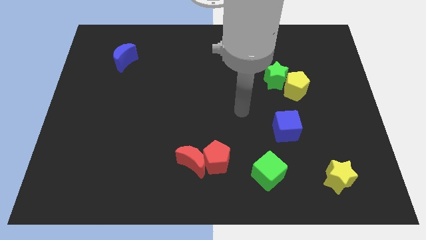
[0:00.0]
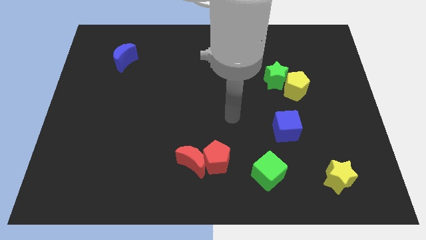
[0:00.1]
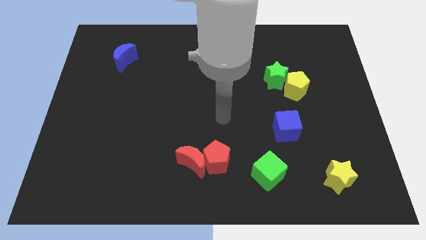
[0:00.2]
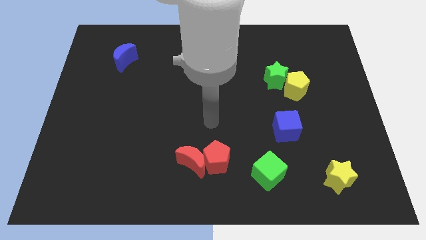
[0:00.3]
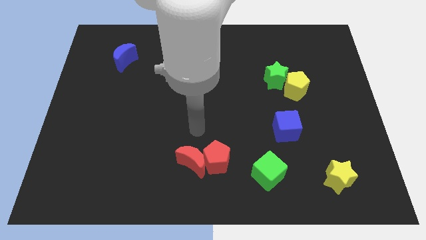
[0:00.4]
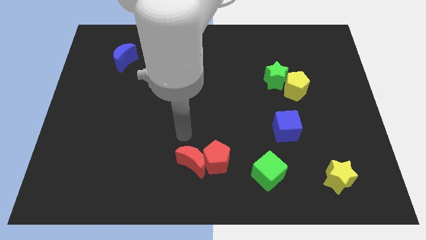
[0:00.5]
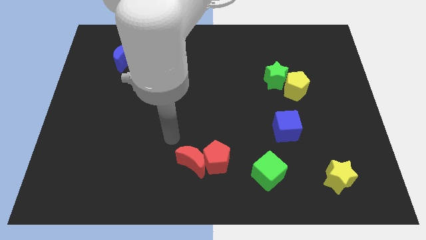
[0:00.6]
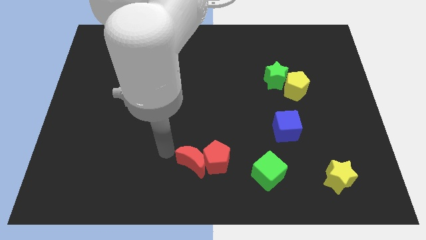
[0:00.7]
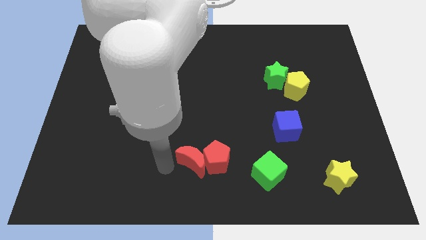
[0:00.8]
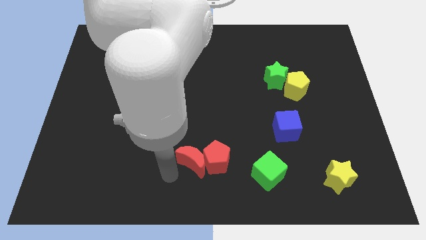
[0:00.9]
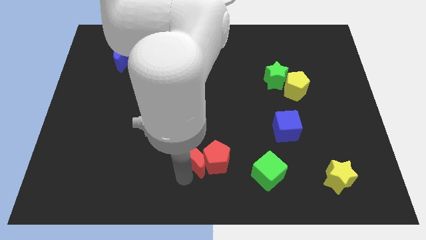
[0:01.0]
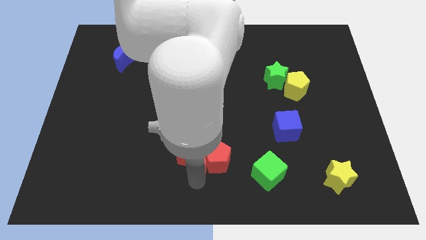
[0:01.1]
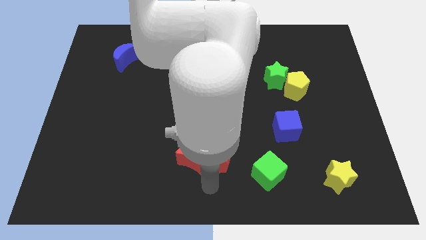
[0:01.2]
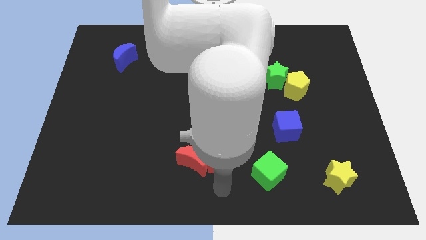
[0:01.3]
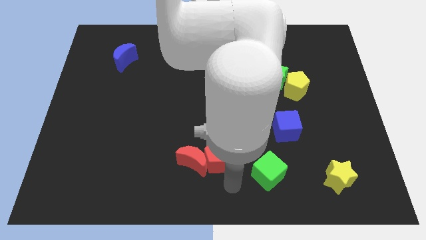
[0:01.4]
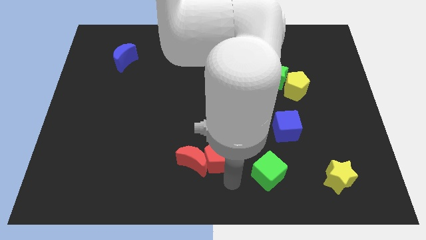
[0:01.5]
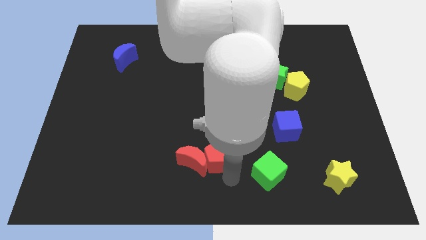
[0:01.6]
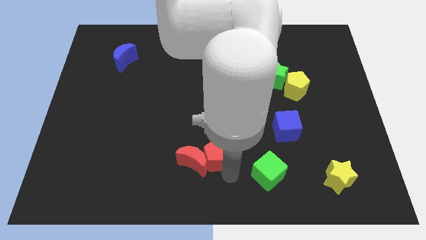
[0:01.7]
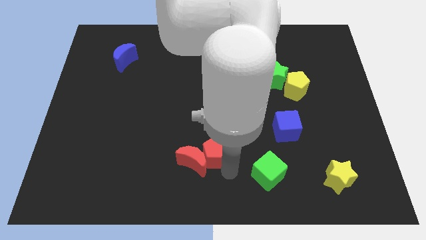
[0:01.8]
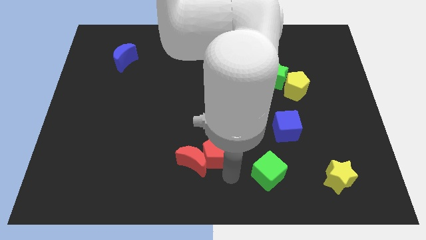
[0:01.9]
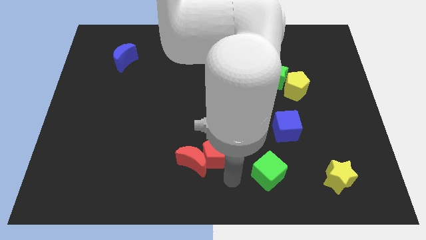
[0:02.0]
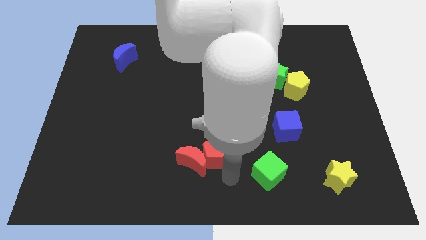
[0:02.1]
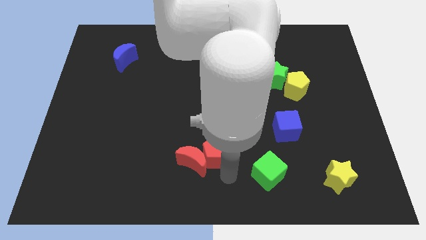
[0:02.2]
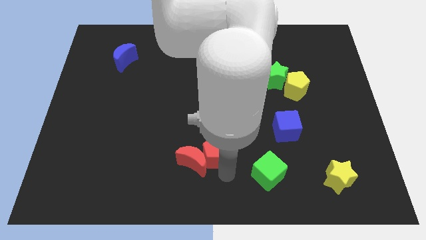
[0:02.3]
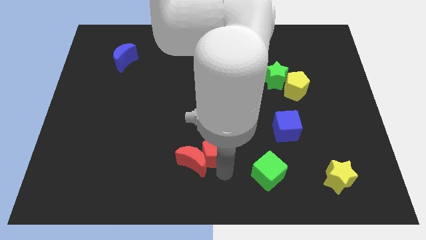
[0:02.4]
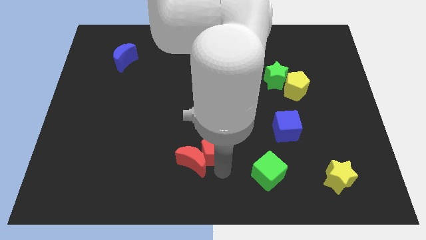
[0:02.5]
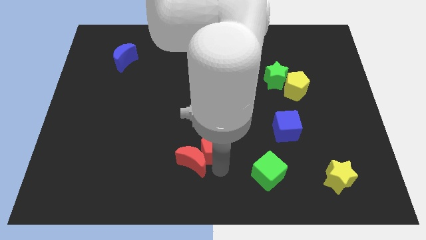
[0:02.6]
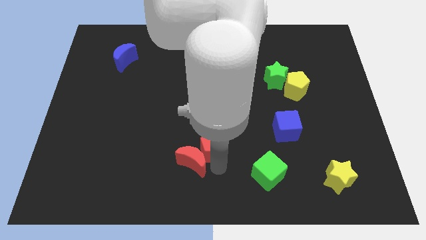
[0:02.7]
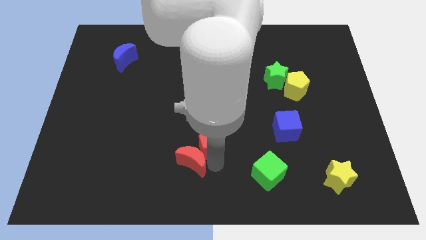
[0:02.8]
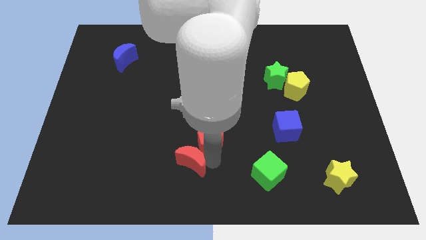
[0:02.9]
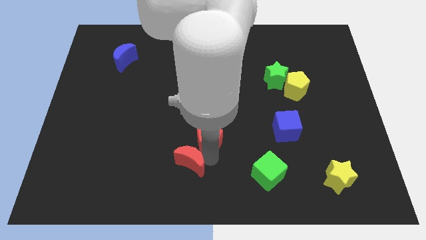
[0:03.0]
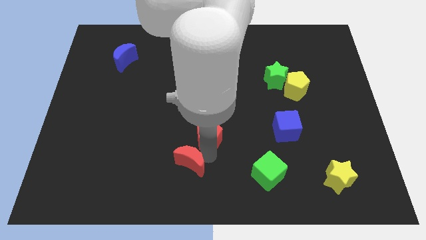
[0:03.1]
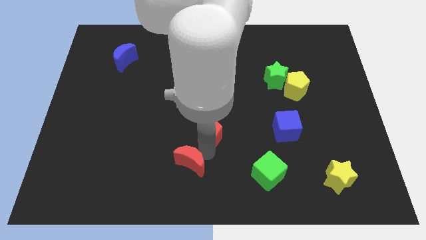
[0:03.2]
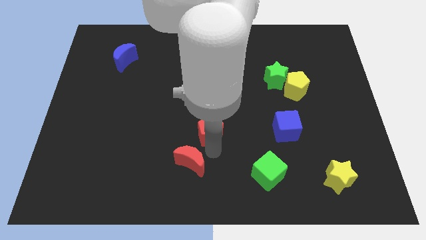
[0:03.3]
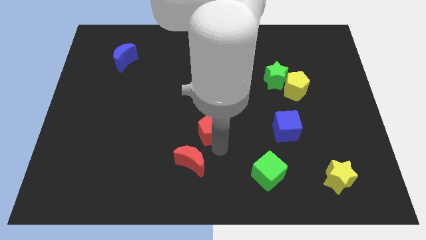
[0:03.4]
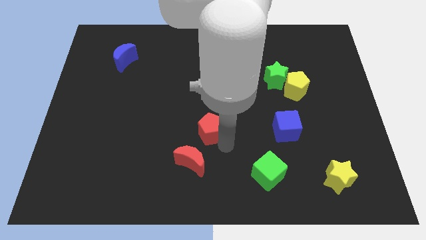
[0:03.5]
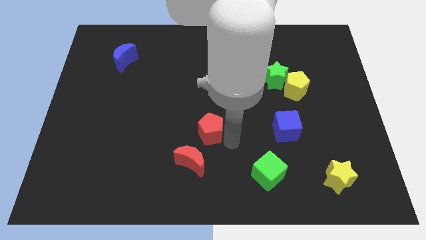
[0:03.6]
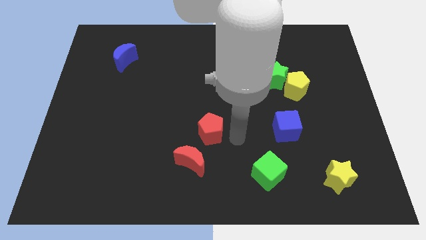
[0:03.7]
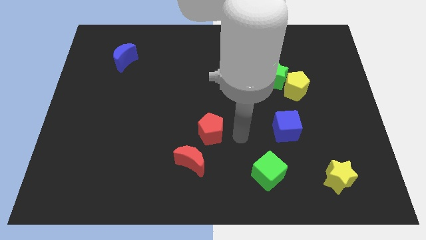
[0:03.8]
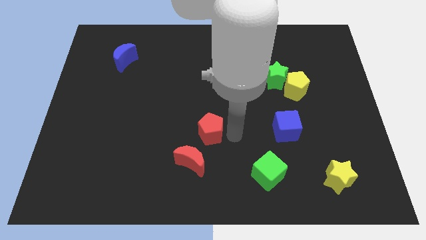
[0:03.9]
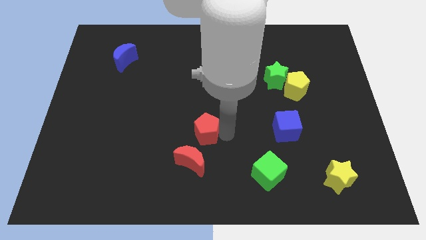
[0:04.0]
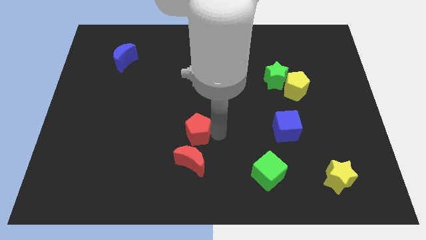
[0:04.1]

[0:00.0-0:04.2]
push the red pentagon upwards and to the left a little bit

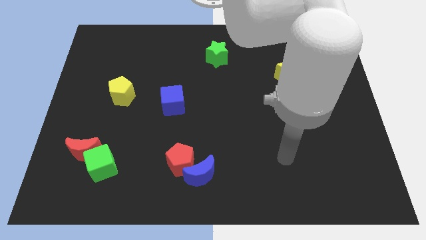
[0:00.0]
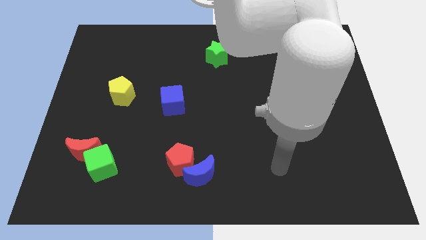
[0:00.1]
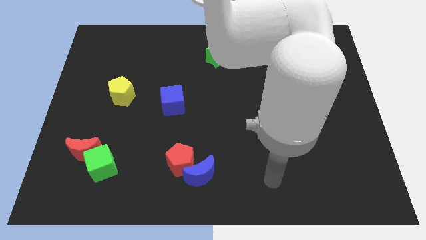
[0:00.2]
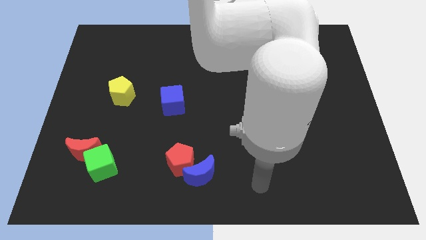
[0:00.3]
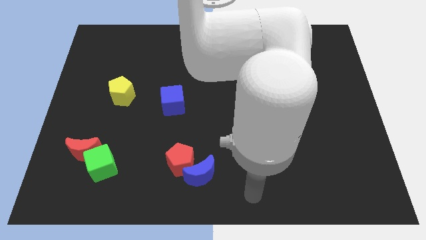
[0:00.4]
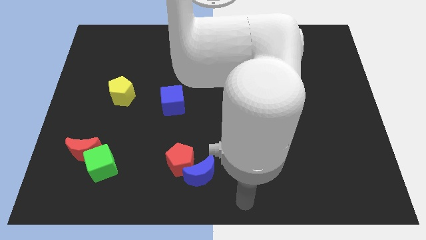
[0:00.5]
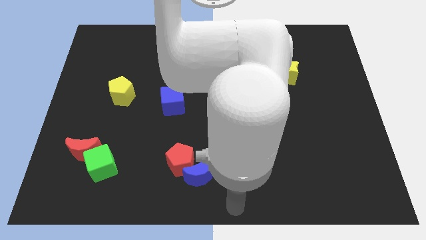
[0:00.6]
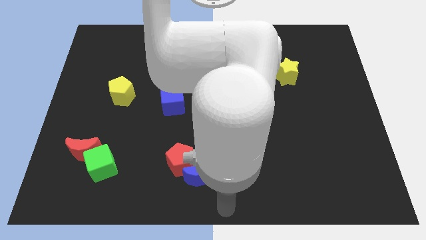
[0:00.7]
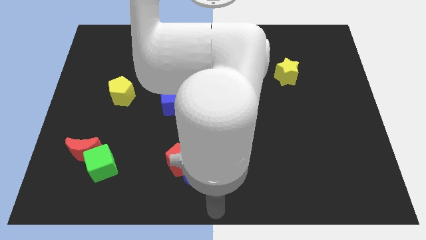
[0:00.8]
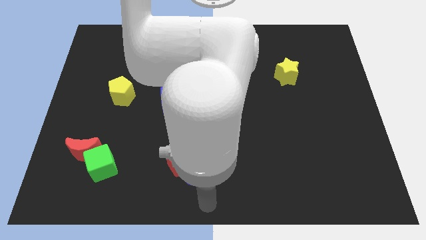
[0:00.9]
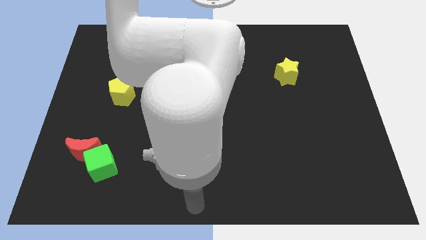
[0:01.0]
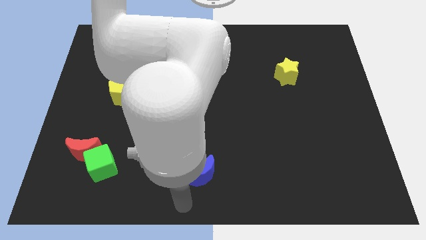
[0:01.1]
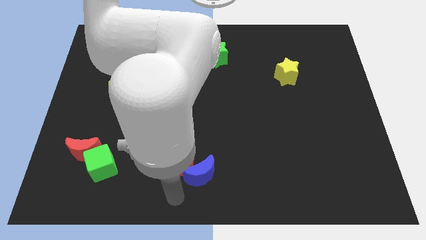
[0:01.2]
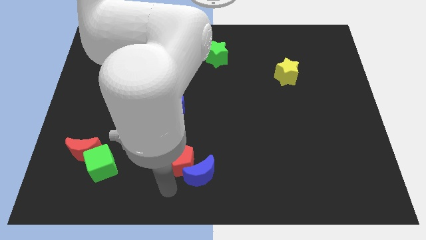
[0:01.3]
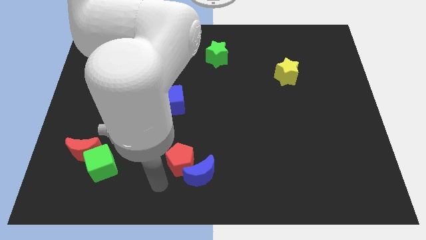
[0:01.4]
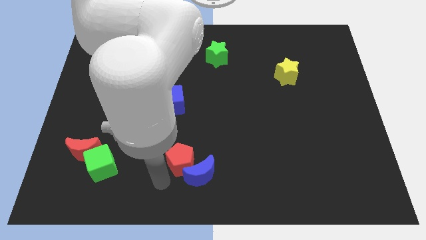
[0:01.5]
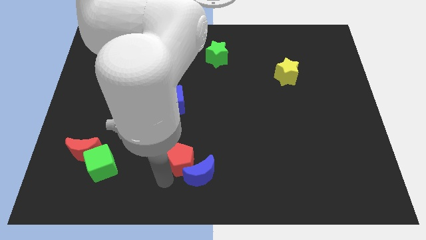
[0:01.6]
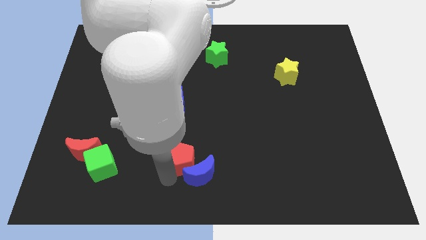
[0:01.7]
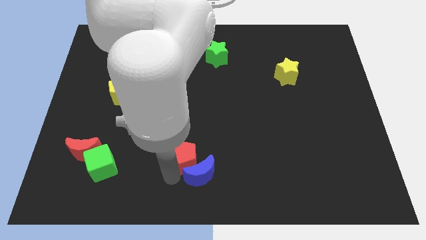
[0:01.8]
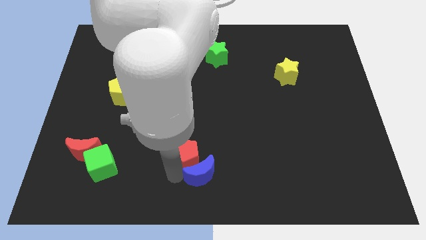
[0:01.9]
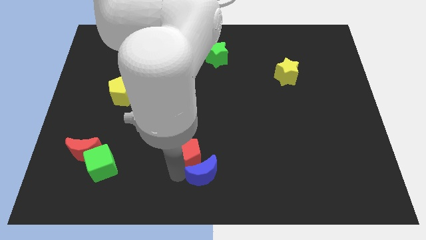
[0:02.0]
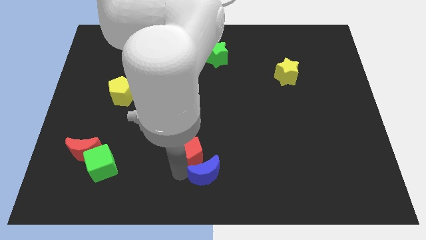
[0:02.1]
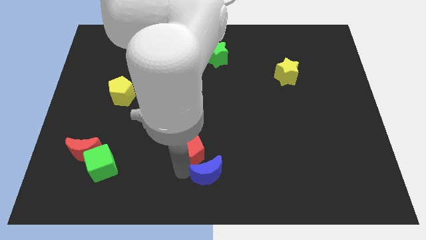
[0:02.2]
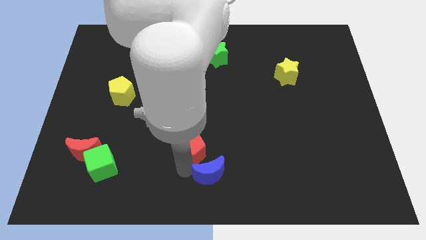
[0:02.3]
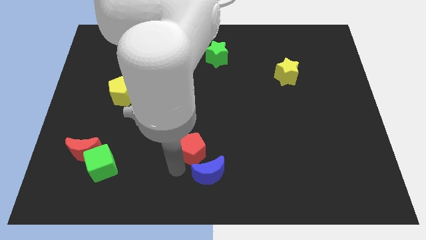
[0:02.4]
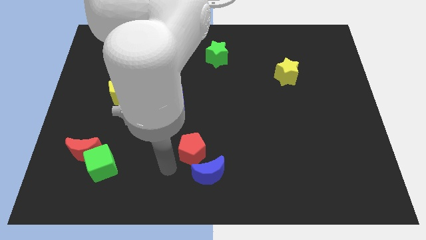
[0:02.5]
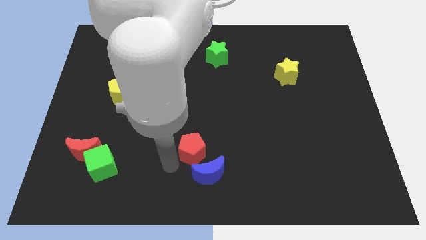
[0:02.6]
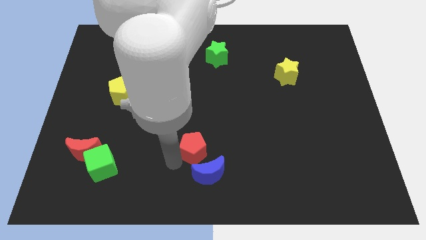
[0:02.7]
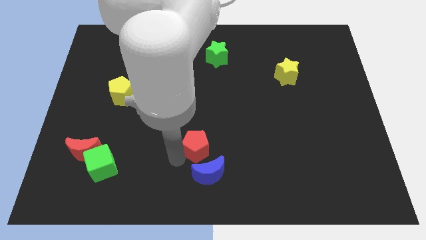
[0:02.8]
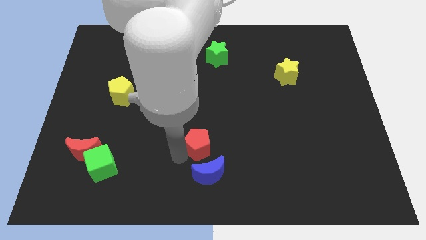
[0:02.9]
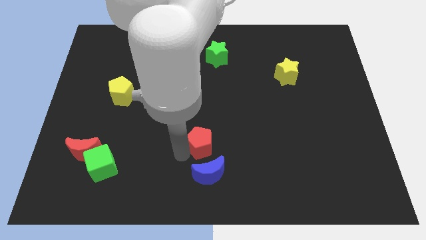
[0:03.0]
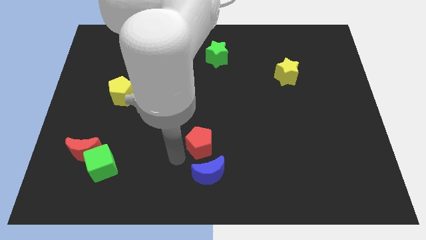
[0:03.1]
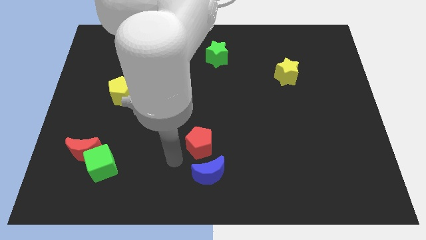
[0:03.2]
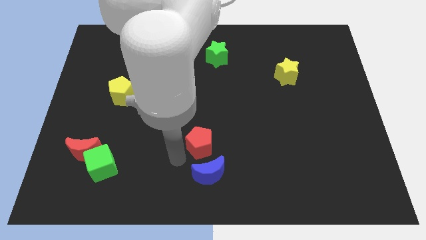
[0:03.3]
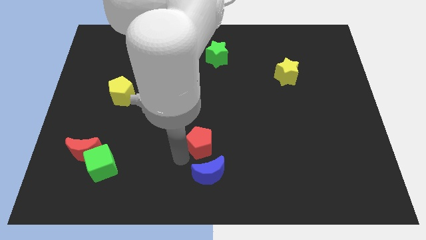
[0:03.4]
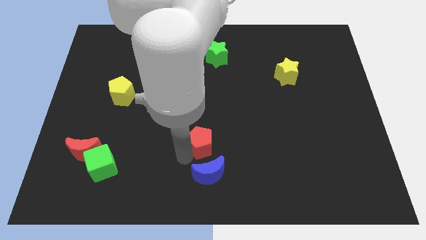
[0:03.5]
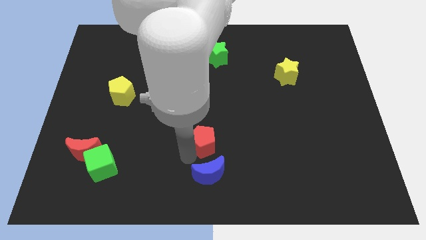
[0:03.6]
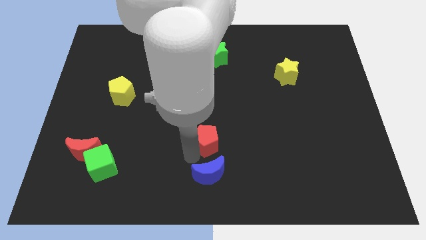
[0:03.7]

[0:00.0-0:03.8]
move the red pentagon somewhat upwards and right
